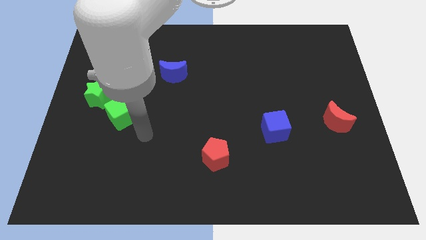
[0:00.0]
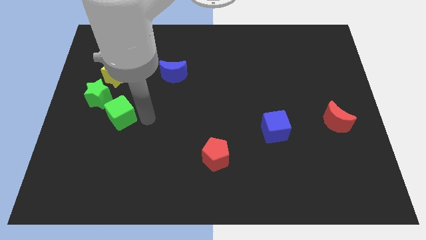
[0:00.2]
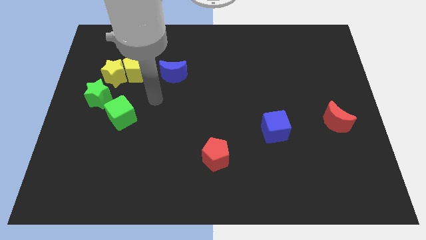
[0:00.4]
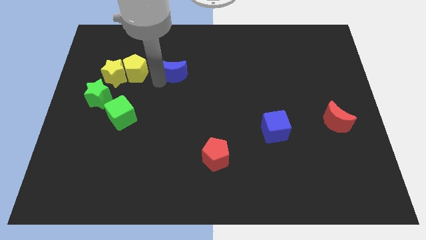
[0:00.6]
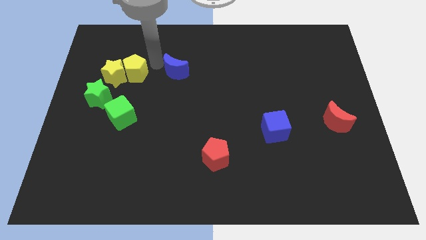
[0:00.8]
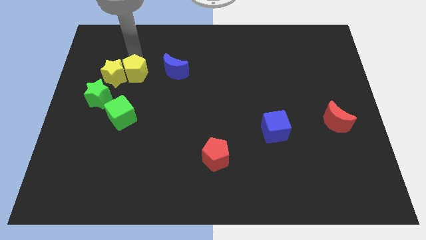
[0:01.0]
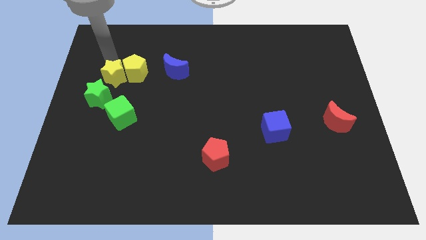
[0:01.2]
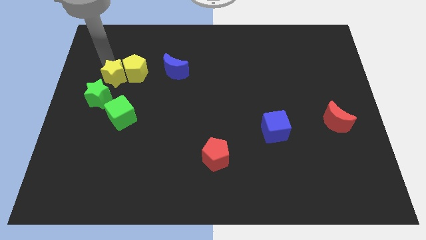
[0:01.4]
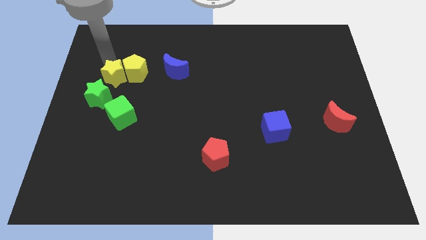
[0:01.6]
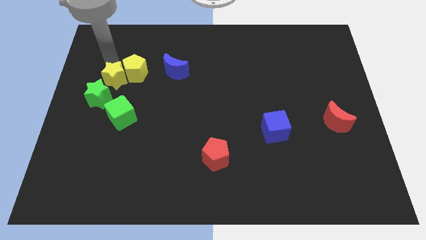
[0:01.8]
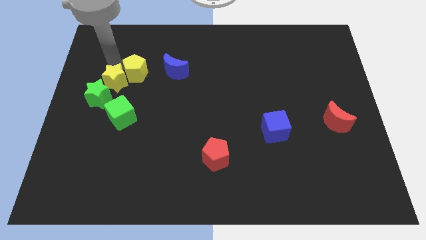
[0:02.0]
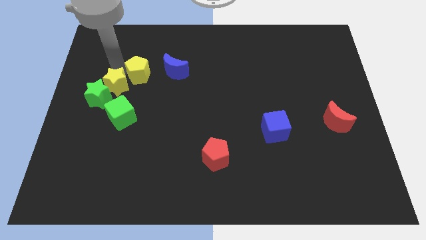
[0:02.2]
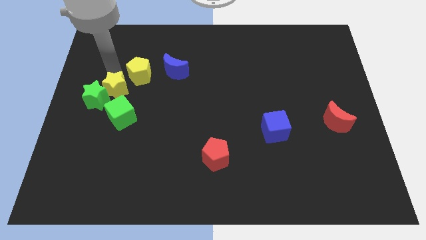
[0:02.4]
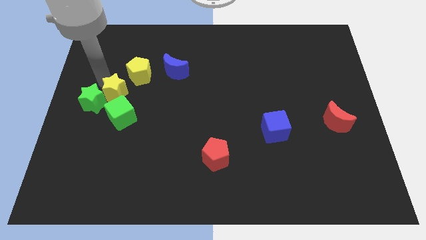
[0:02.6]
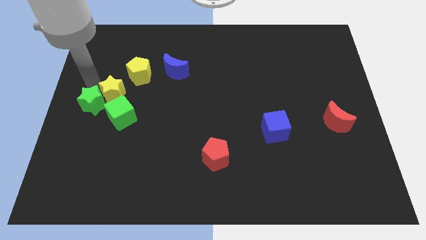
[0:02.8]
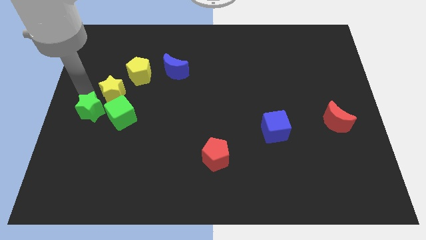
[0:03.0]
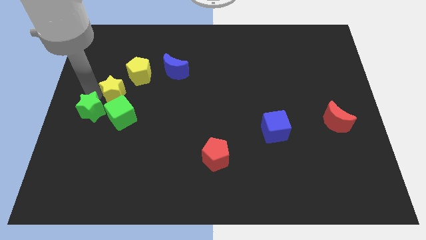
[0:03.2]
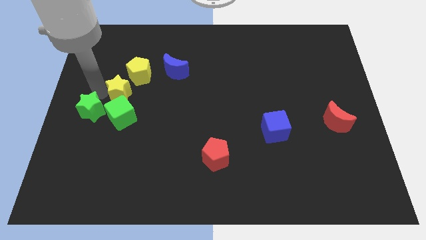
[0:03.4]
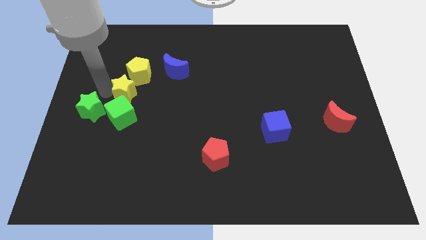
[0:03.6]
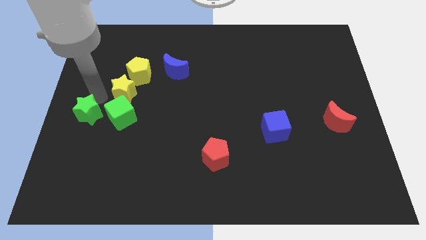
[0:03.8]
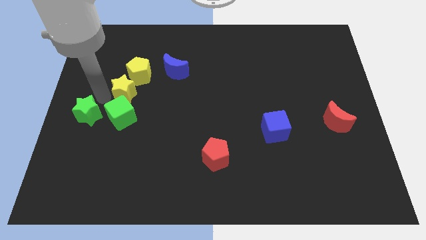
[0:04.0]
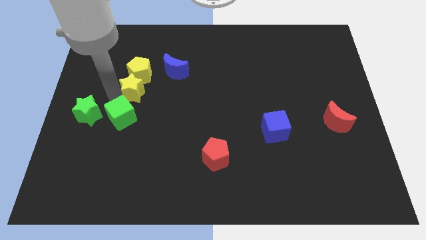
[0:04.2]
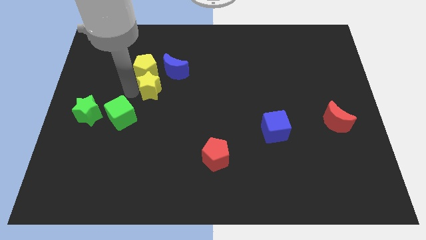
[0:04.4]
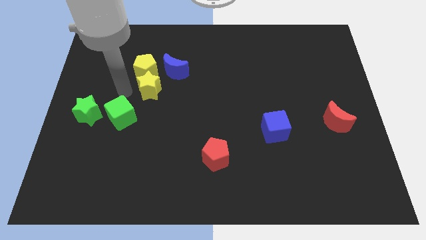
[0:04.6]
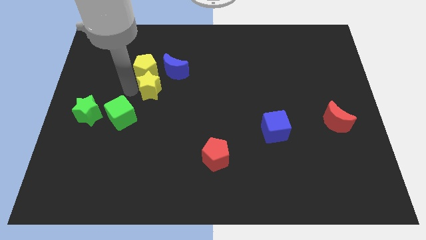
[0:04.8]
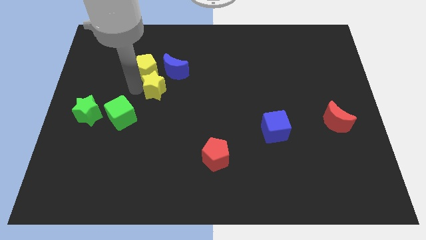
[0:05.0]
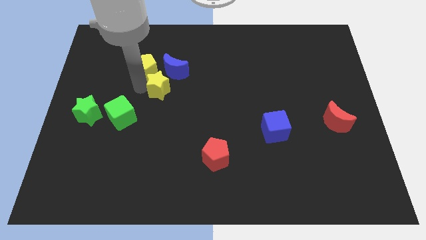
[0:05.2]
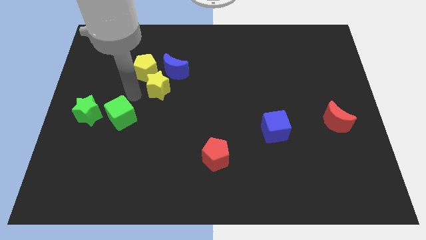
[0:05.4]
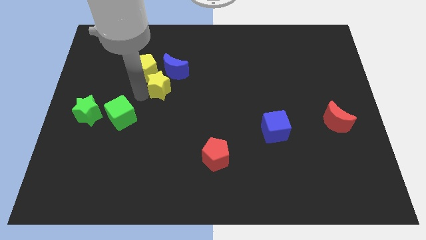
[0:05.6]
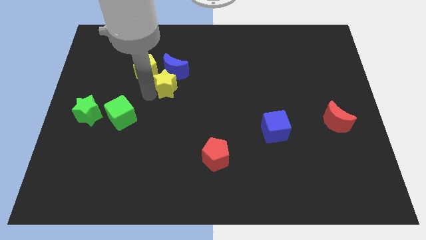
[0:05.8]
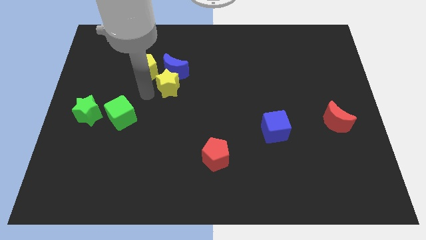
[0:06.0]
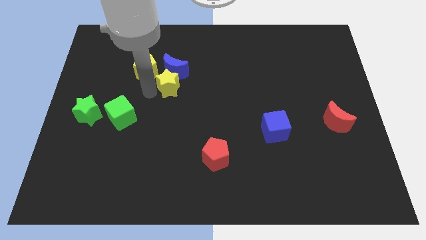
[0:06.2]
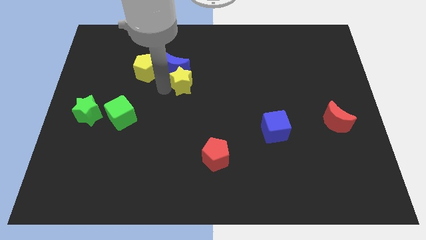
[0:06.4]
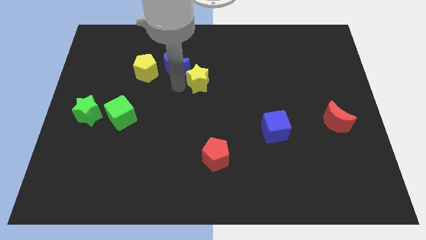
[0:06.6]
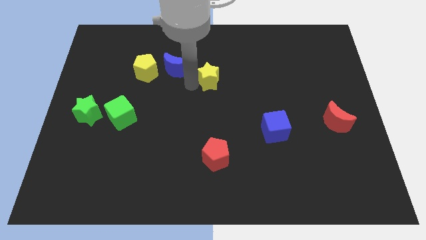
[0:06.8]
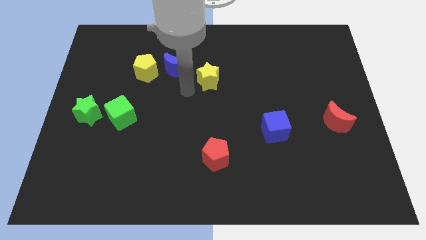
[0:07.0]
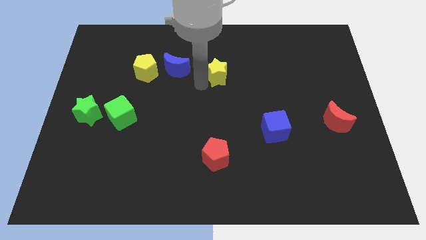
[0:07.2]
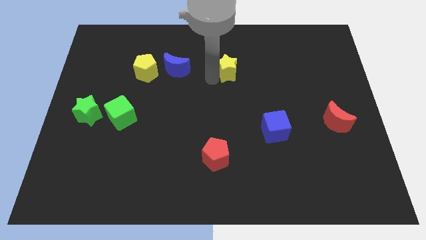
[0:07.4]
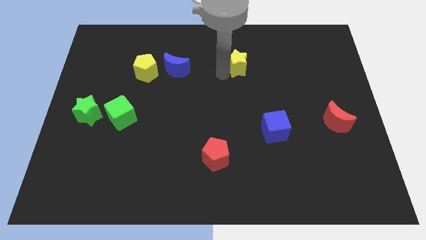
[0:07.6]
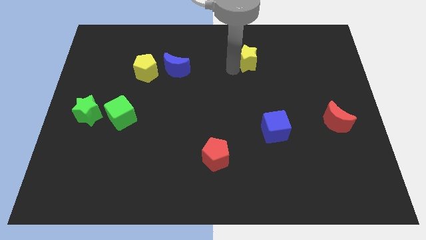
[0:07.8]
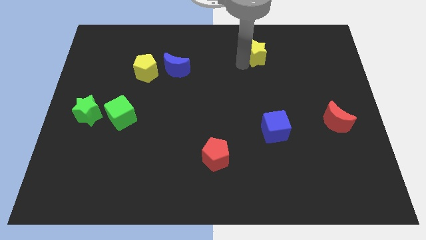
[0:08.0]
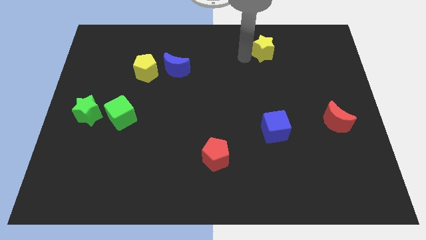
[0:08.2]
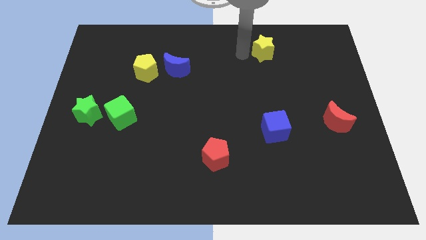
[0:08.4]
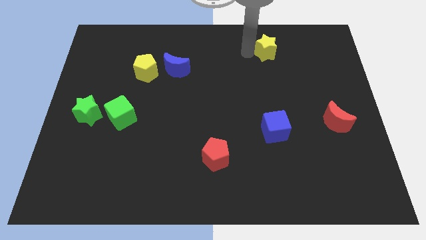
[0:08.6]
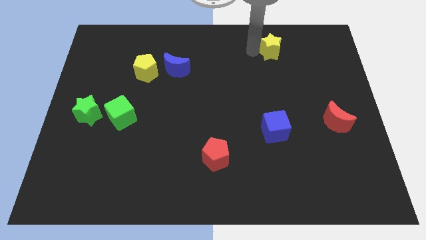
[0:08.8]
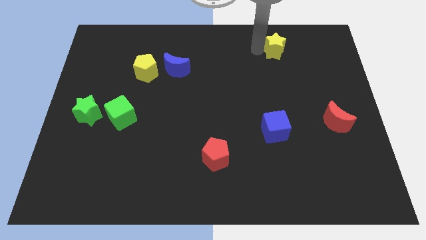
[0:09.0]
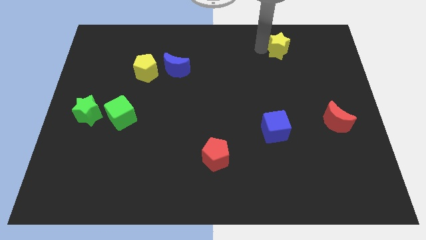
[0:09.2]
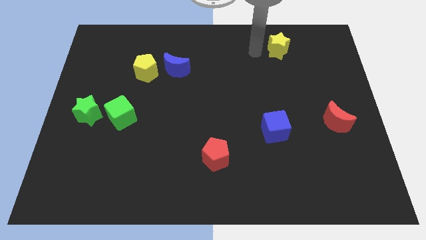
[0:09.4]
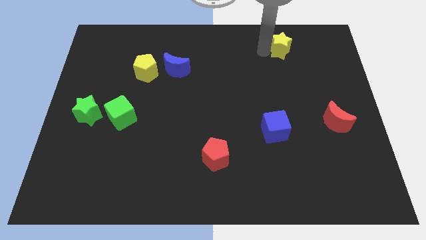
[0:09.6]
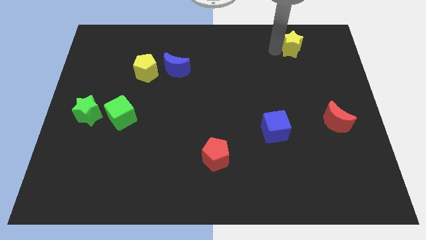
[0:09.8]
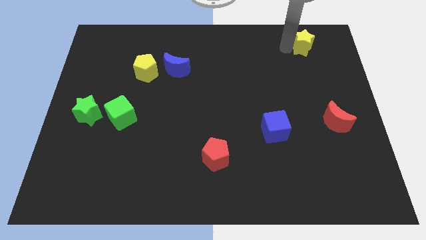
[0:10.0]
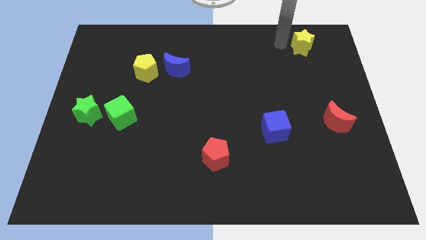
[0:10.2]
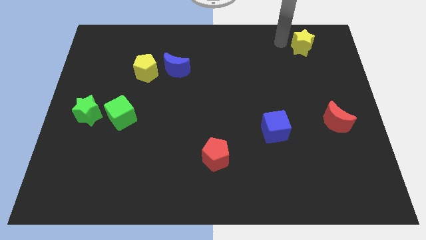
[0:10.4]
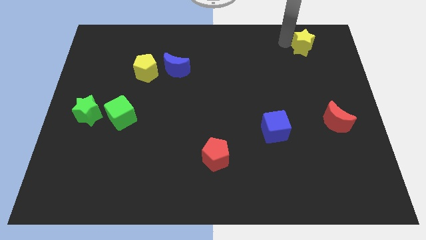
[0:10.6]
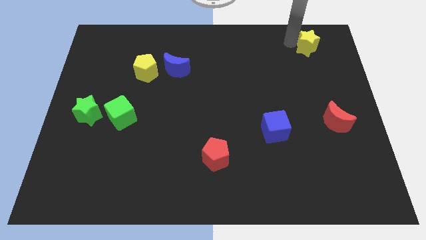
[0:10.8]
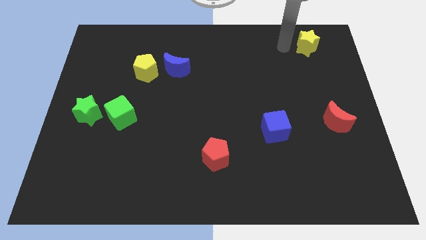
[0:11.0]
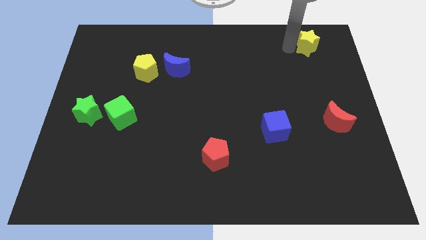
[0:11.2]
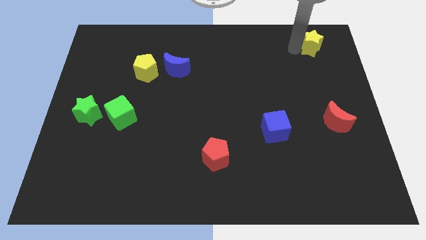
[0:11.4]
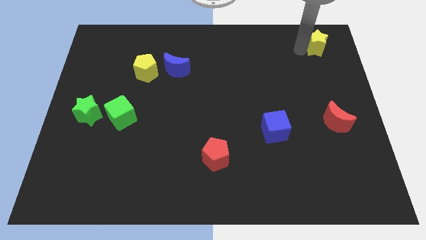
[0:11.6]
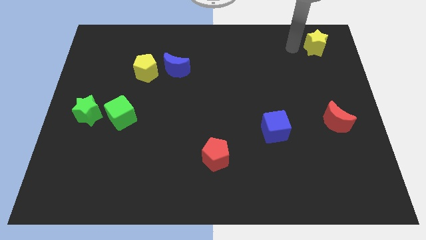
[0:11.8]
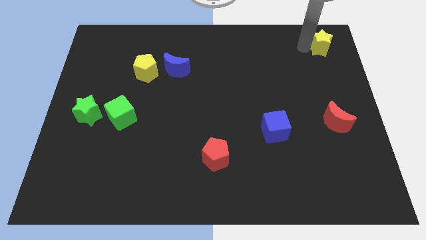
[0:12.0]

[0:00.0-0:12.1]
slide the yellow star to the upper right corner
